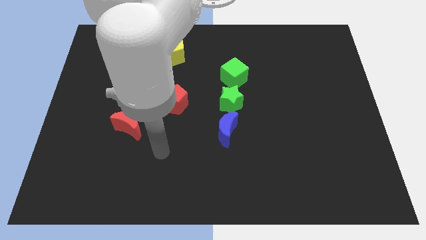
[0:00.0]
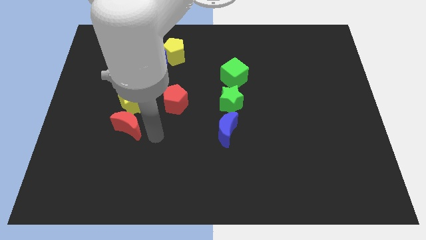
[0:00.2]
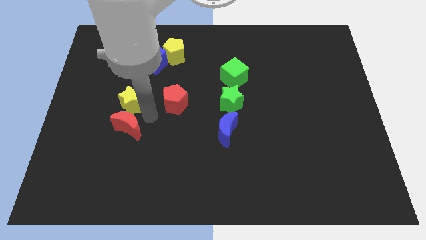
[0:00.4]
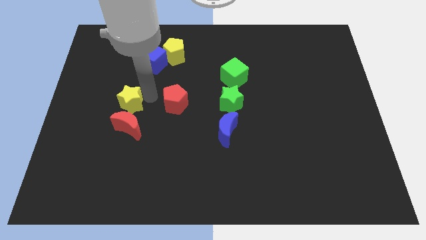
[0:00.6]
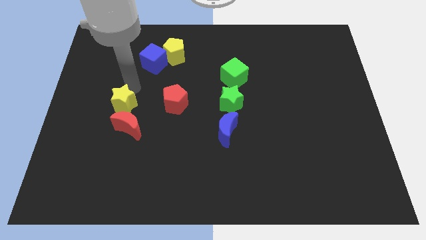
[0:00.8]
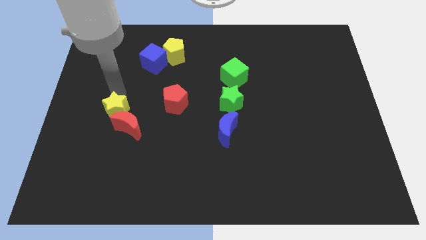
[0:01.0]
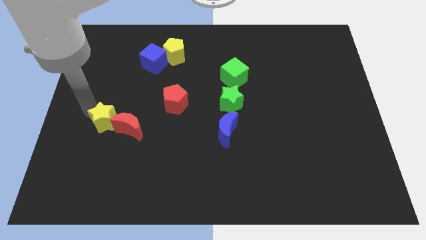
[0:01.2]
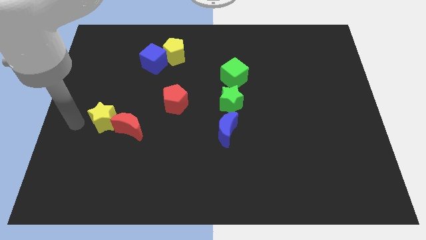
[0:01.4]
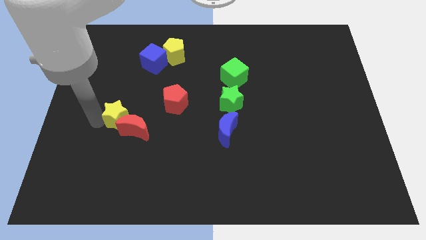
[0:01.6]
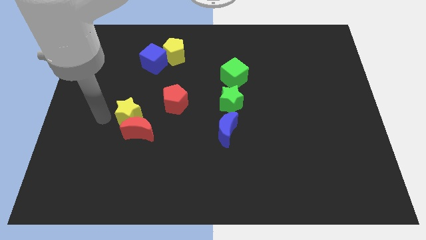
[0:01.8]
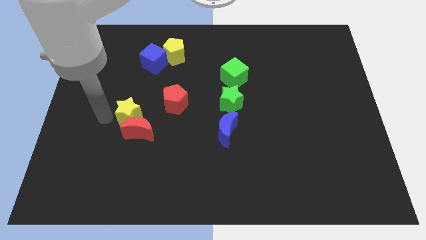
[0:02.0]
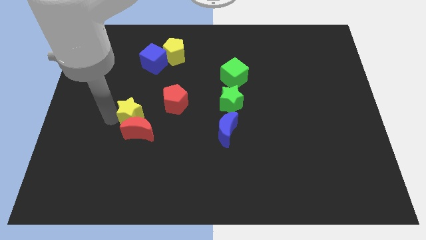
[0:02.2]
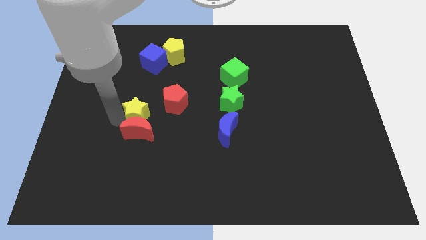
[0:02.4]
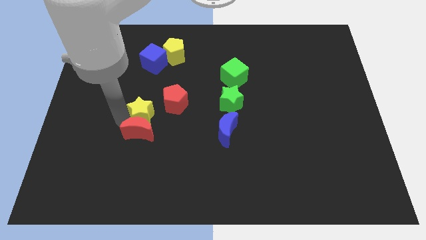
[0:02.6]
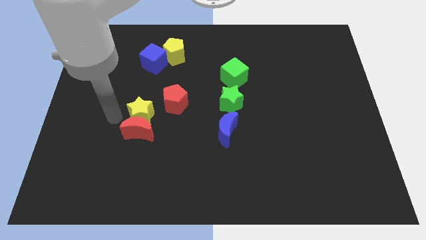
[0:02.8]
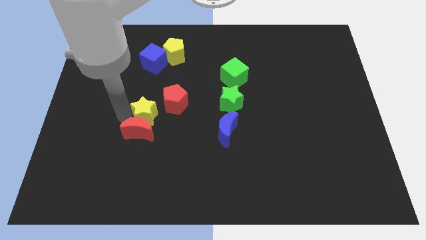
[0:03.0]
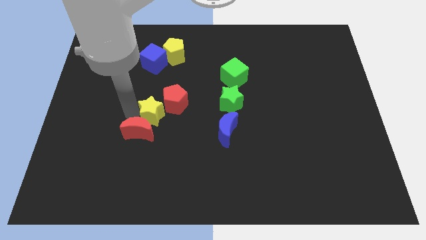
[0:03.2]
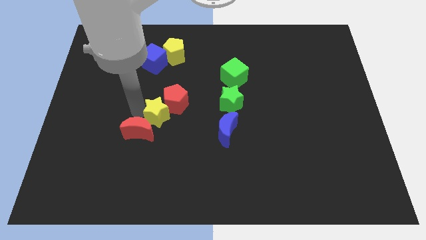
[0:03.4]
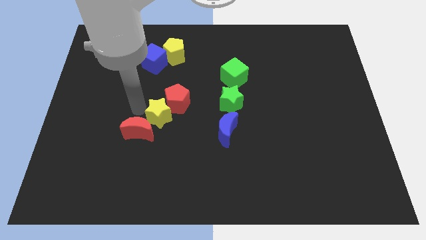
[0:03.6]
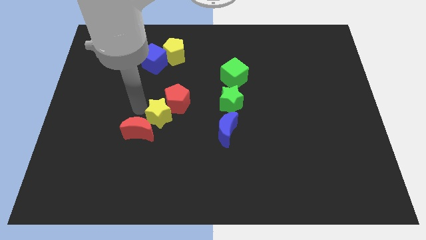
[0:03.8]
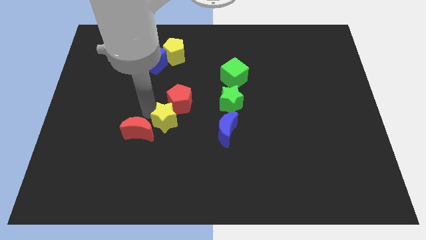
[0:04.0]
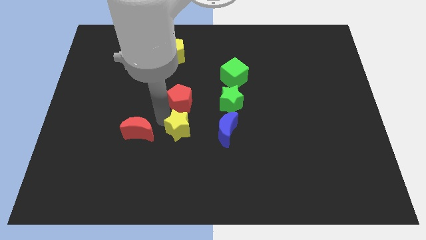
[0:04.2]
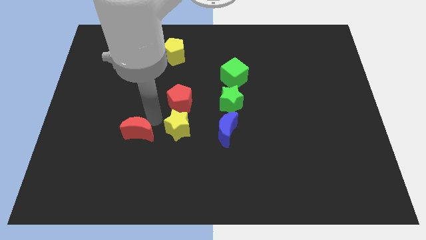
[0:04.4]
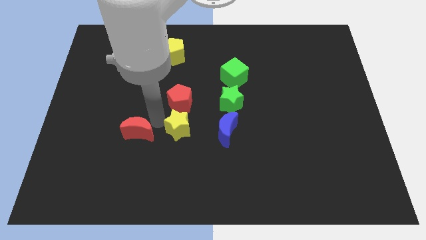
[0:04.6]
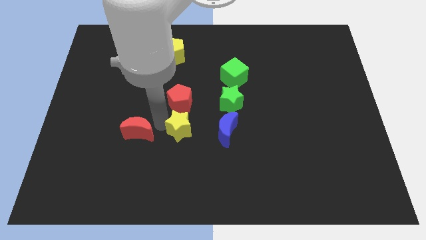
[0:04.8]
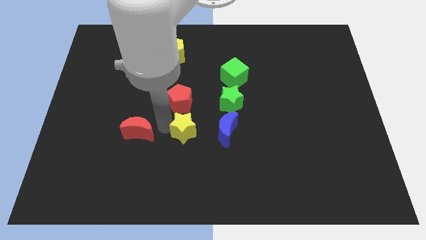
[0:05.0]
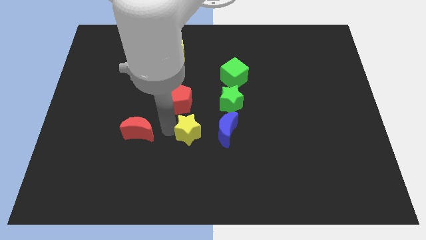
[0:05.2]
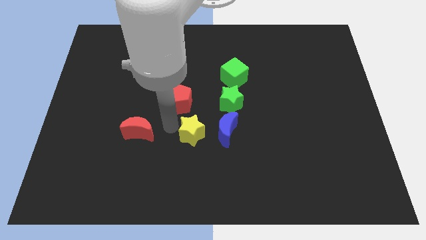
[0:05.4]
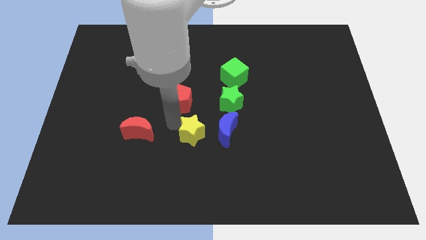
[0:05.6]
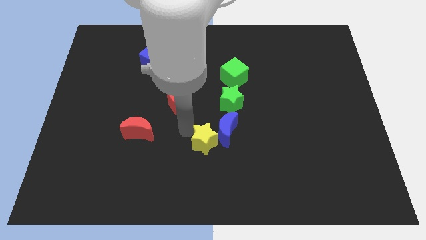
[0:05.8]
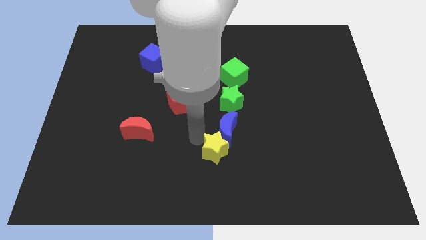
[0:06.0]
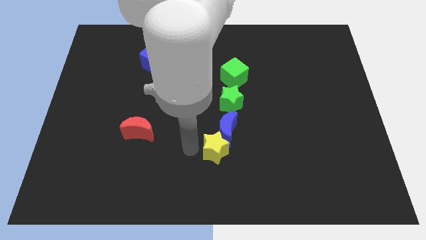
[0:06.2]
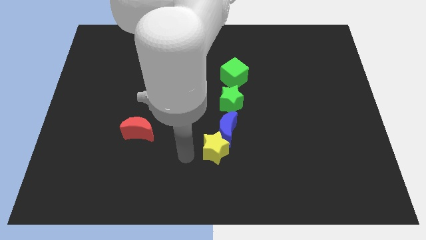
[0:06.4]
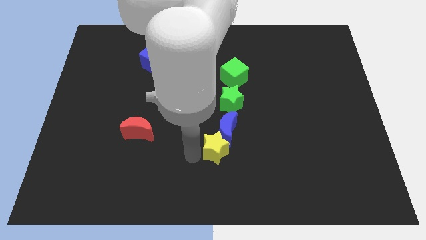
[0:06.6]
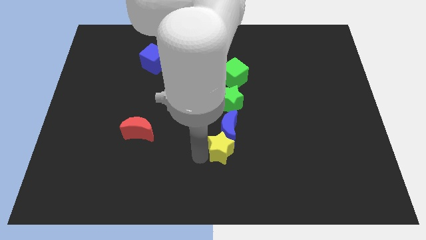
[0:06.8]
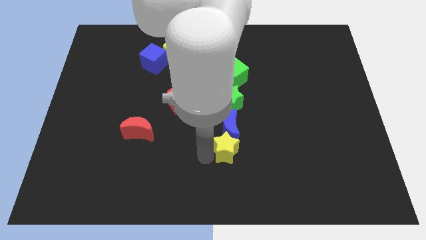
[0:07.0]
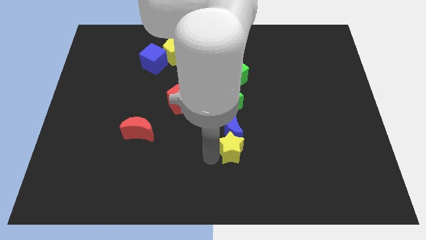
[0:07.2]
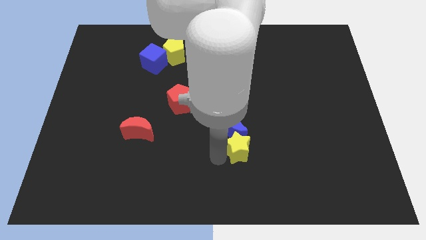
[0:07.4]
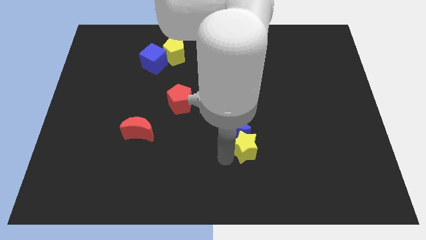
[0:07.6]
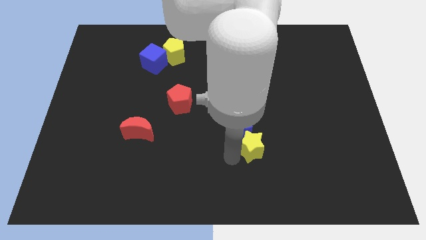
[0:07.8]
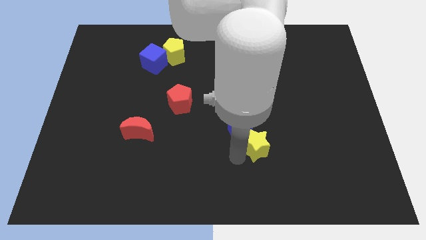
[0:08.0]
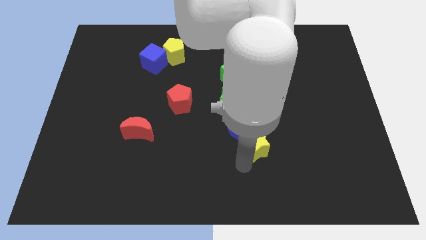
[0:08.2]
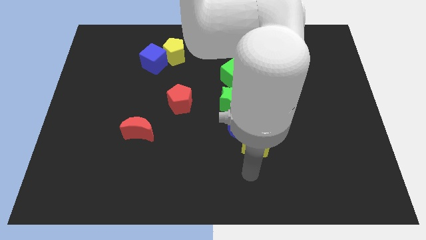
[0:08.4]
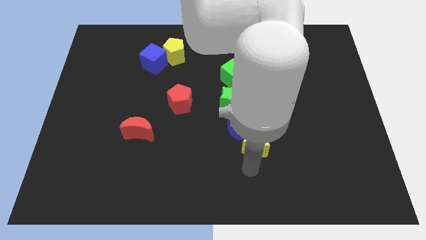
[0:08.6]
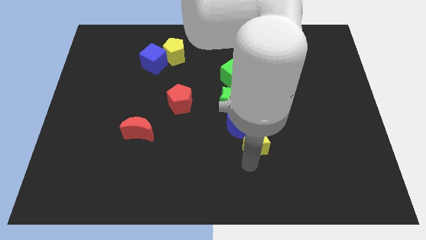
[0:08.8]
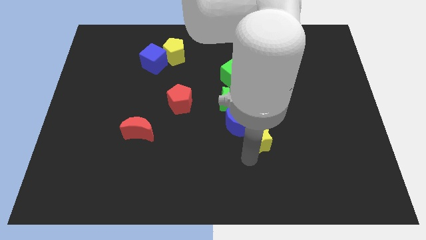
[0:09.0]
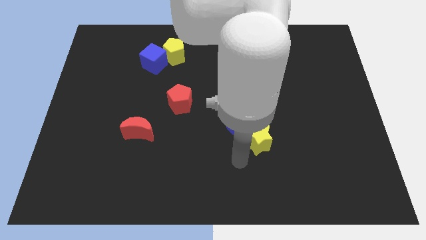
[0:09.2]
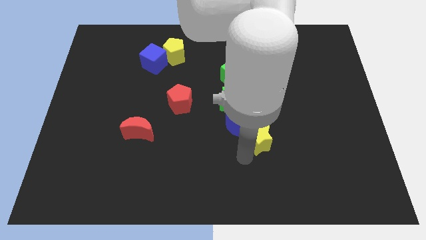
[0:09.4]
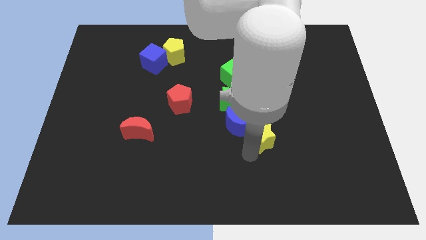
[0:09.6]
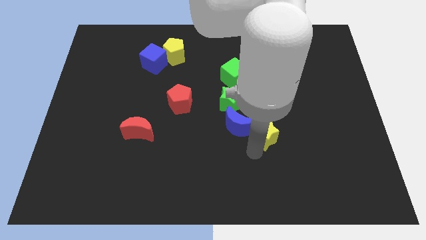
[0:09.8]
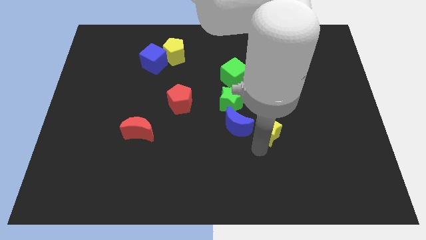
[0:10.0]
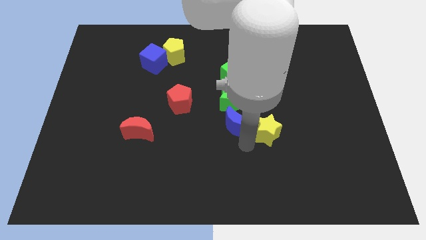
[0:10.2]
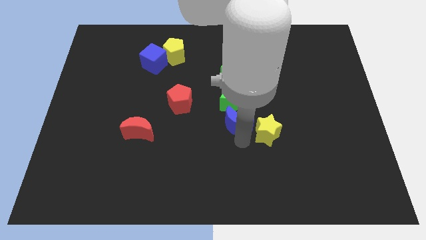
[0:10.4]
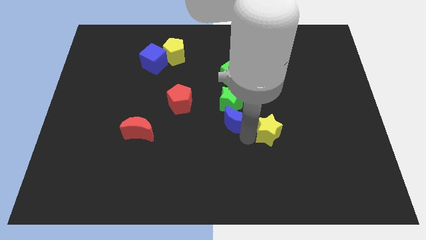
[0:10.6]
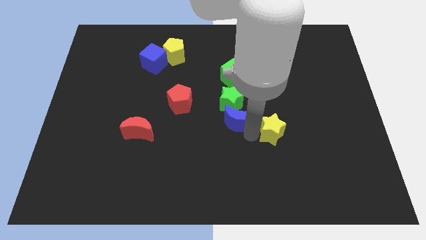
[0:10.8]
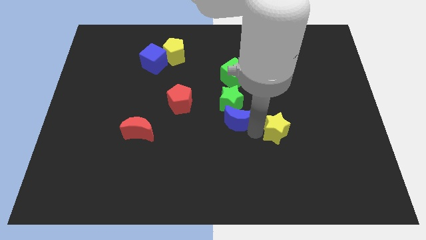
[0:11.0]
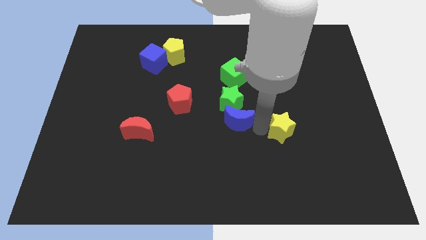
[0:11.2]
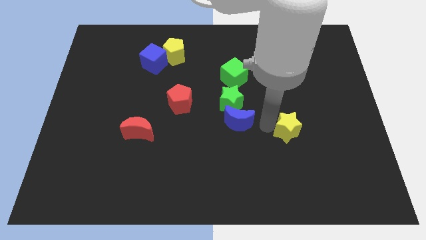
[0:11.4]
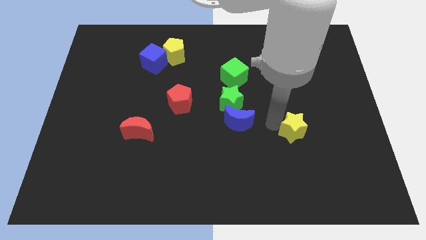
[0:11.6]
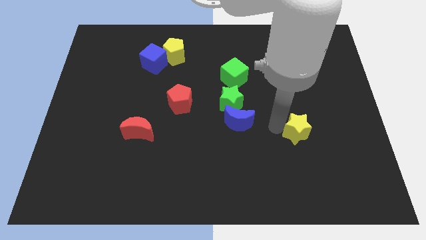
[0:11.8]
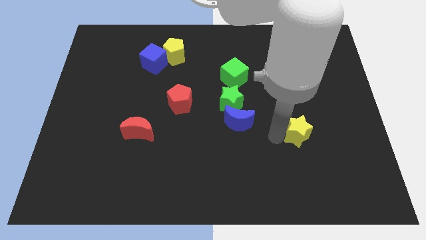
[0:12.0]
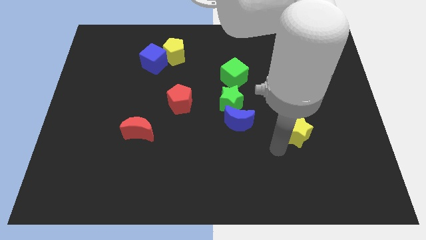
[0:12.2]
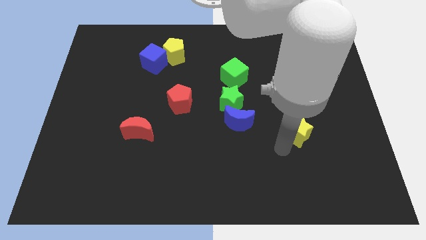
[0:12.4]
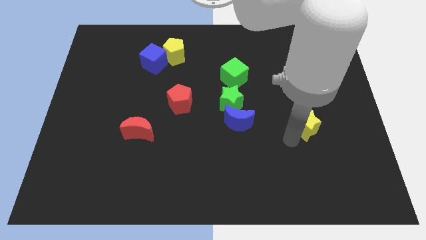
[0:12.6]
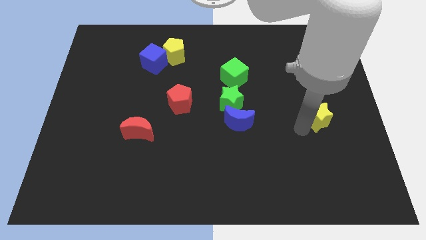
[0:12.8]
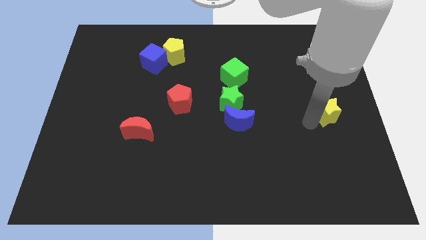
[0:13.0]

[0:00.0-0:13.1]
push the yellow star to the center right
